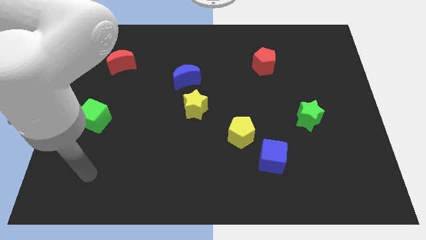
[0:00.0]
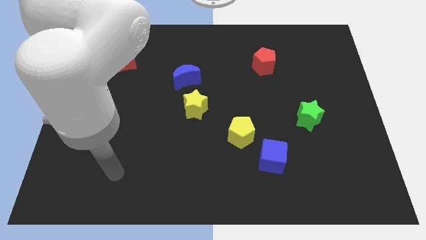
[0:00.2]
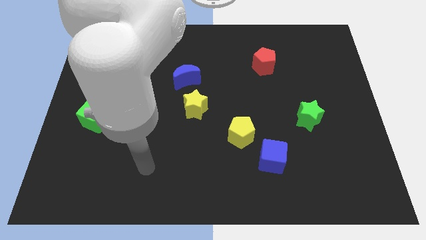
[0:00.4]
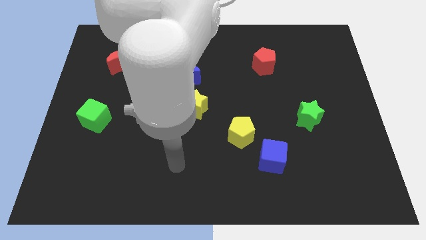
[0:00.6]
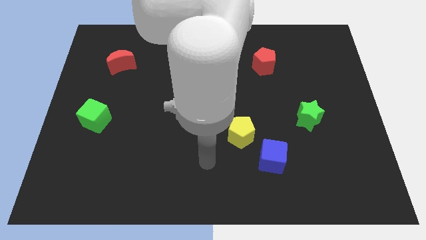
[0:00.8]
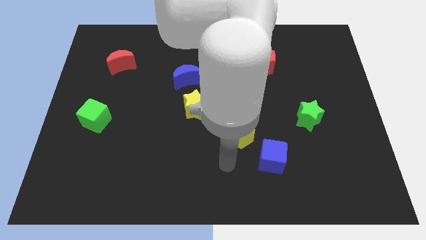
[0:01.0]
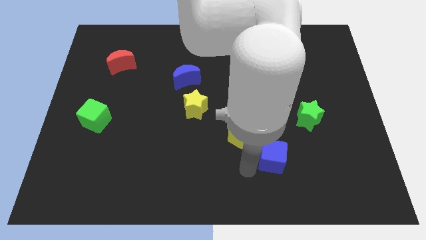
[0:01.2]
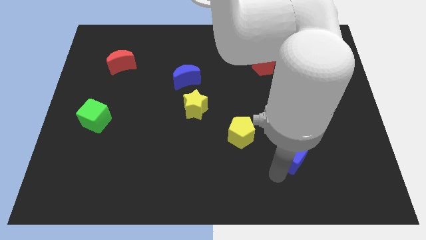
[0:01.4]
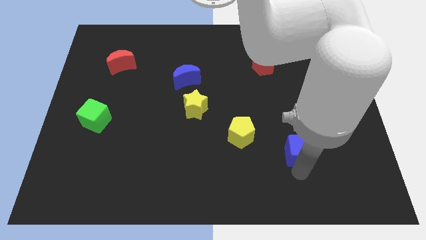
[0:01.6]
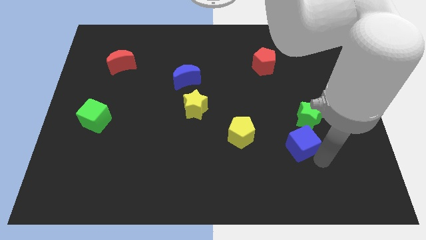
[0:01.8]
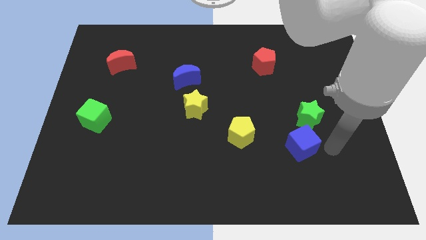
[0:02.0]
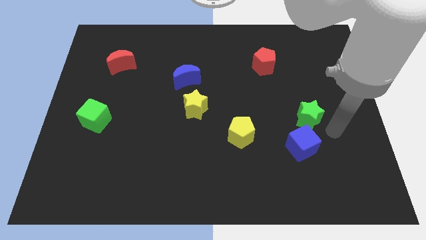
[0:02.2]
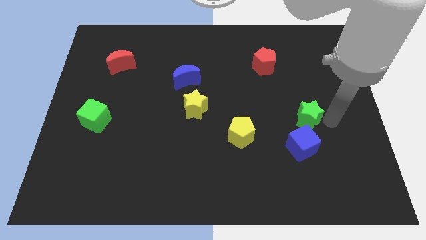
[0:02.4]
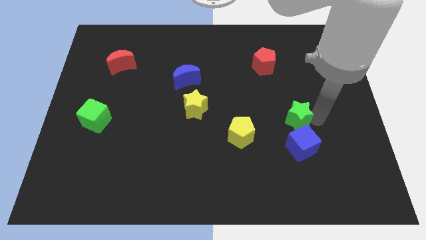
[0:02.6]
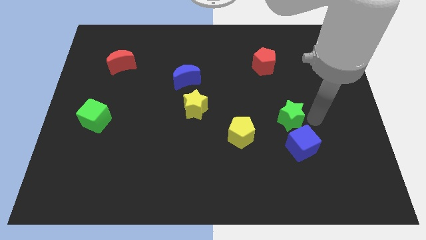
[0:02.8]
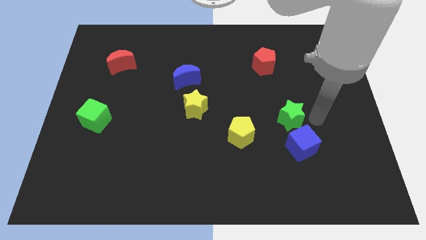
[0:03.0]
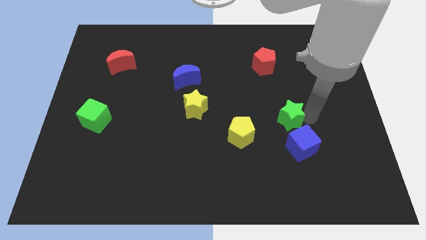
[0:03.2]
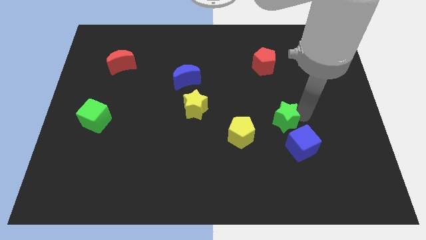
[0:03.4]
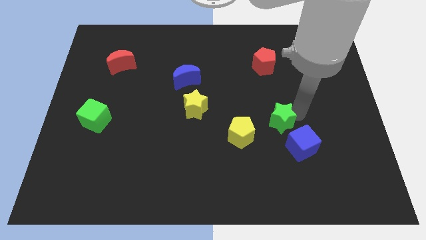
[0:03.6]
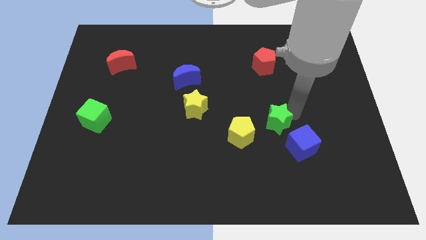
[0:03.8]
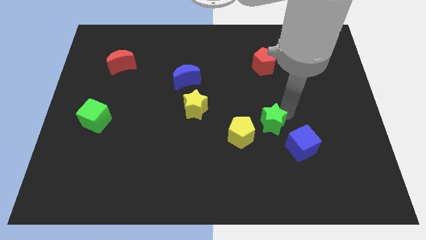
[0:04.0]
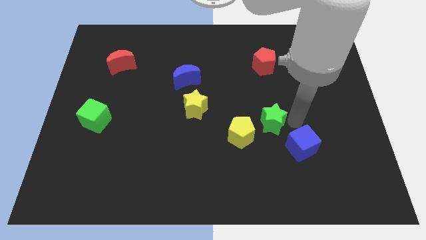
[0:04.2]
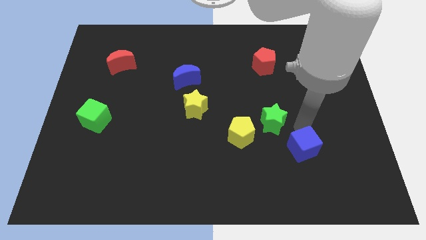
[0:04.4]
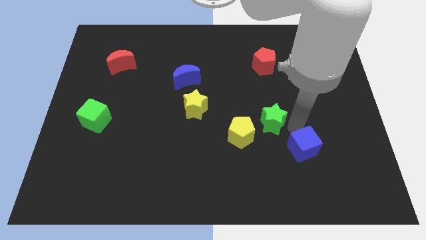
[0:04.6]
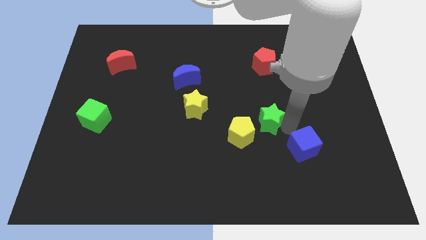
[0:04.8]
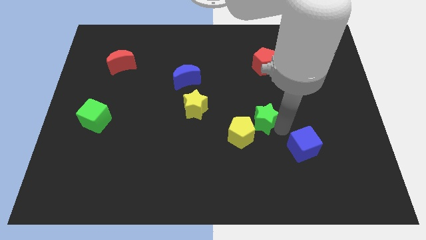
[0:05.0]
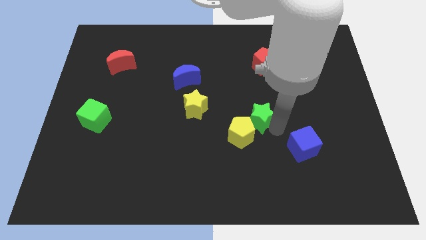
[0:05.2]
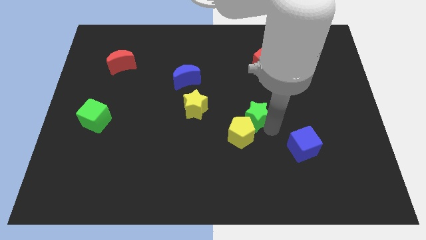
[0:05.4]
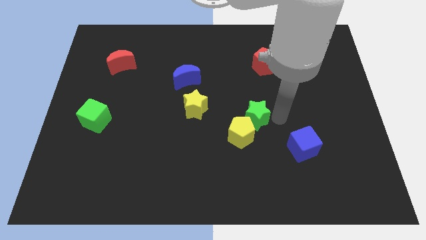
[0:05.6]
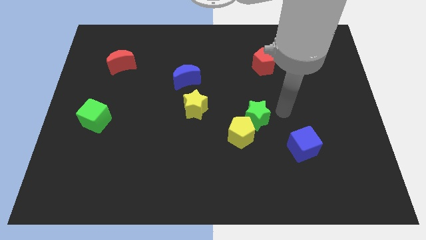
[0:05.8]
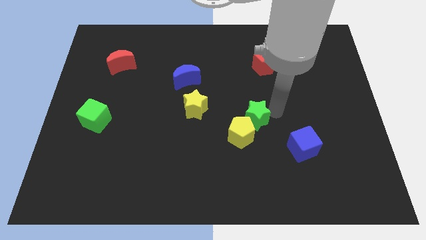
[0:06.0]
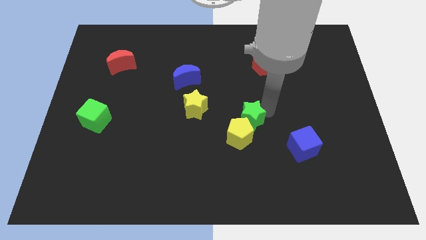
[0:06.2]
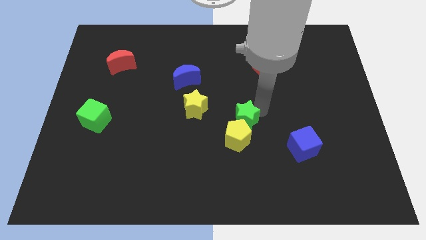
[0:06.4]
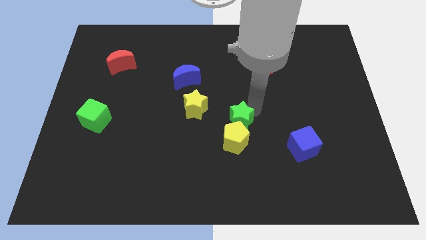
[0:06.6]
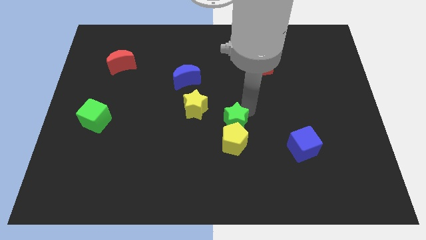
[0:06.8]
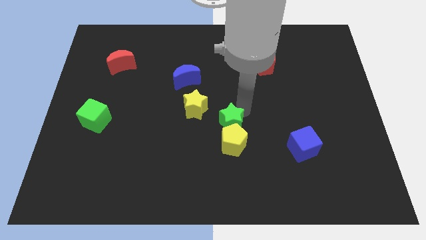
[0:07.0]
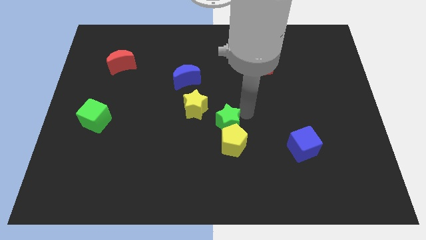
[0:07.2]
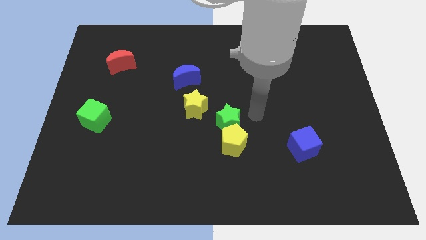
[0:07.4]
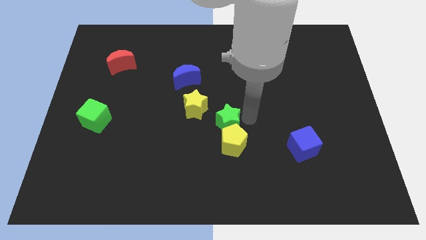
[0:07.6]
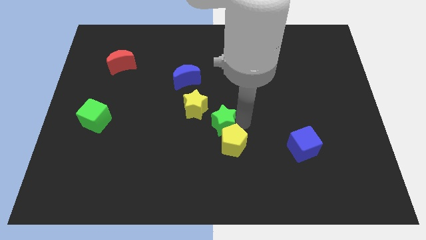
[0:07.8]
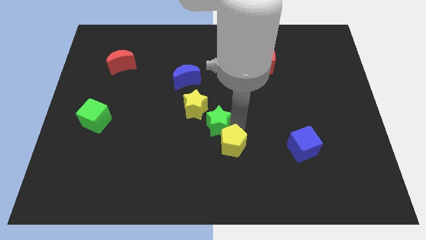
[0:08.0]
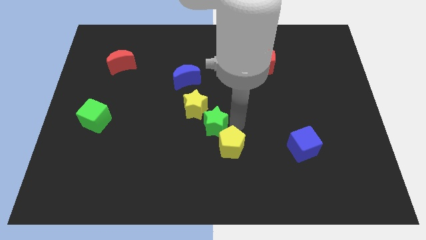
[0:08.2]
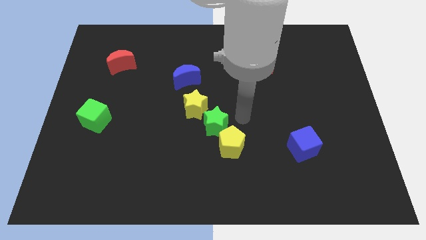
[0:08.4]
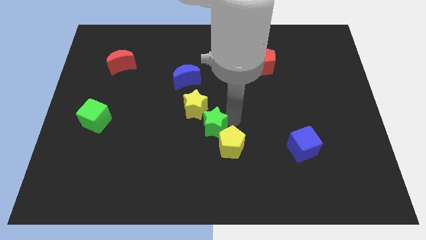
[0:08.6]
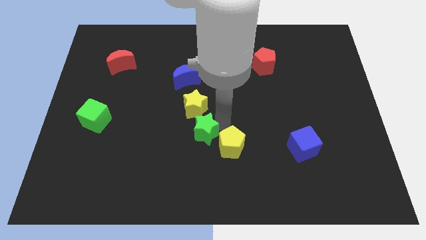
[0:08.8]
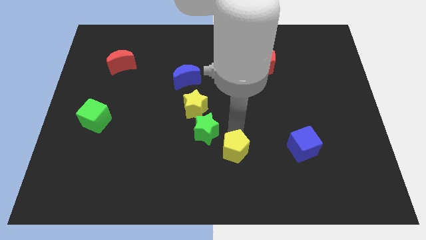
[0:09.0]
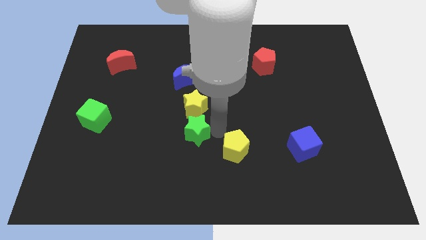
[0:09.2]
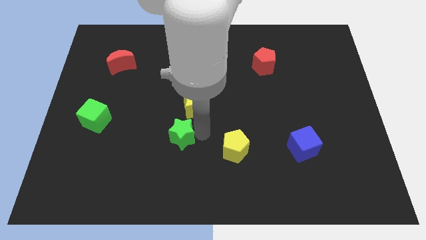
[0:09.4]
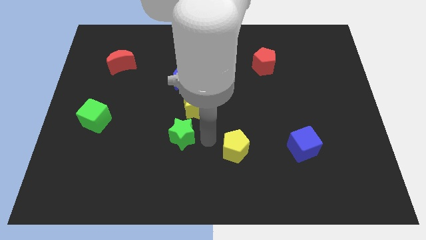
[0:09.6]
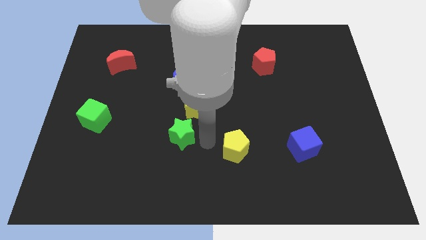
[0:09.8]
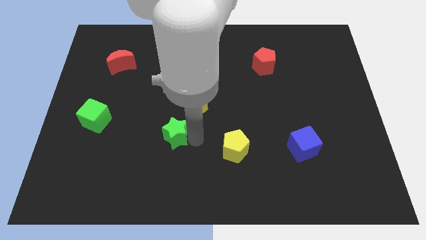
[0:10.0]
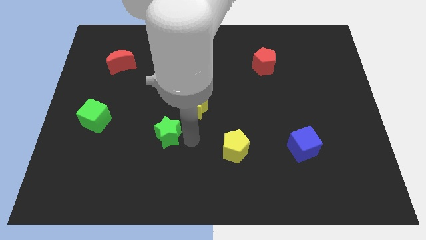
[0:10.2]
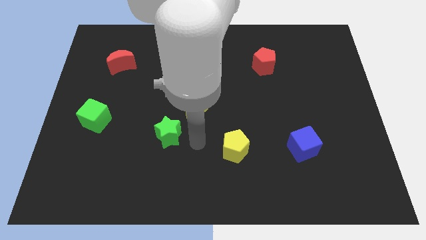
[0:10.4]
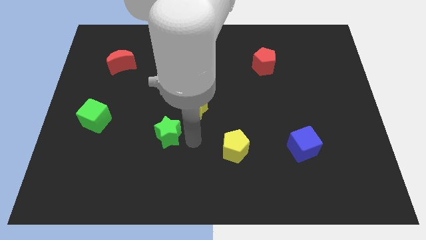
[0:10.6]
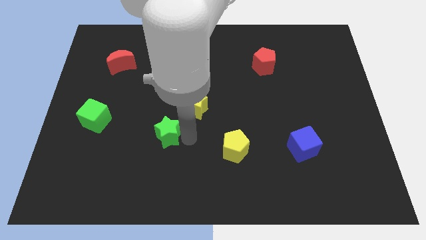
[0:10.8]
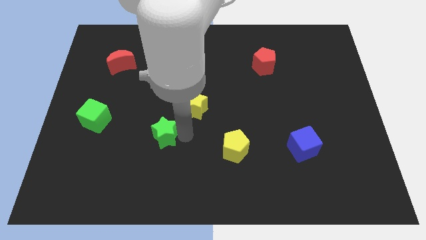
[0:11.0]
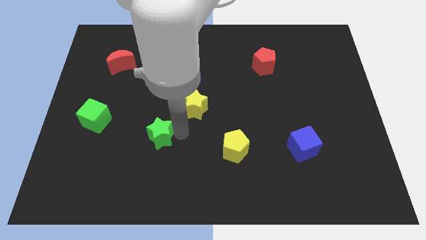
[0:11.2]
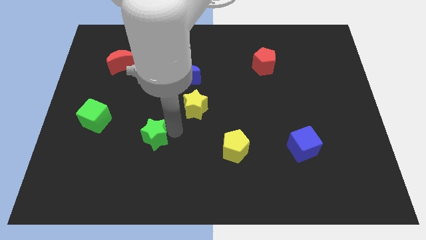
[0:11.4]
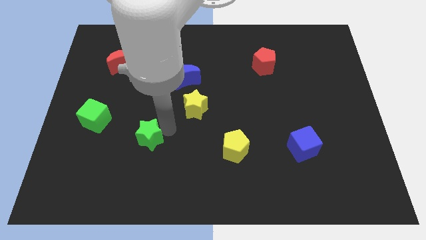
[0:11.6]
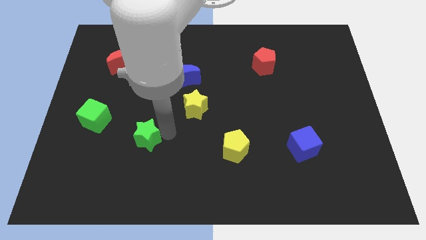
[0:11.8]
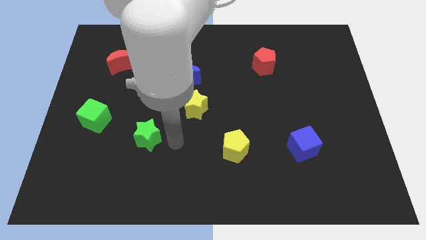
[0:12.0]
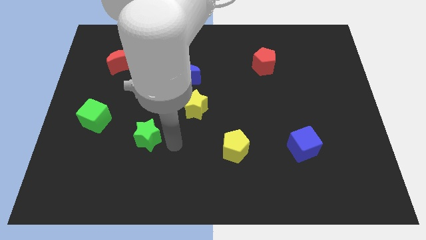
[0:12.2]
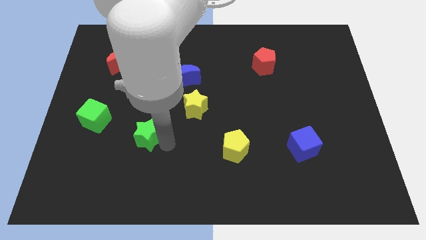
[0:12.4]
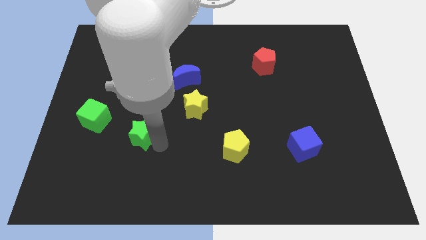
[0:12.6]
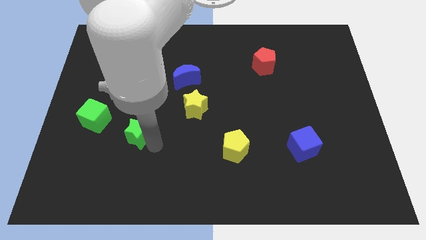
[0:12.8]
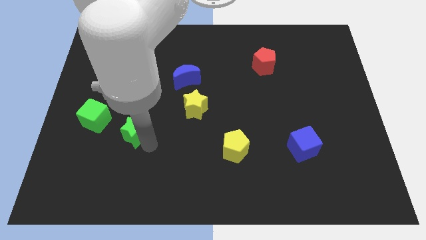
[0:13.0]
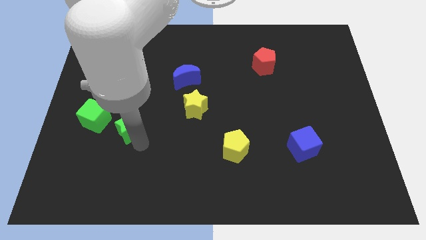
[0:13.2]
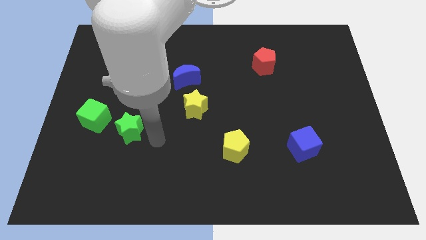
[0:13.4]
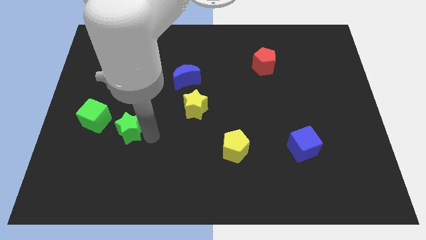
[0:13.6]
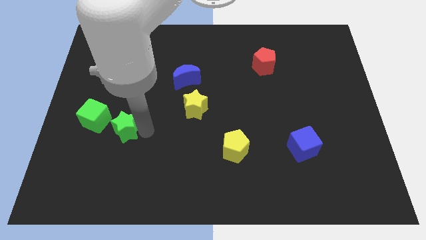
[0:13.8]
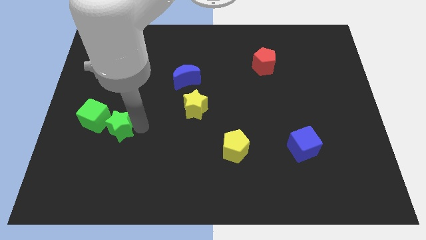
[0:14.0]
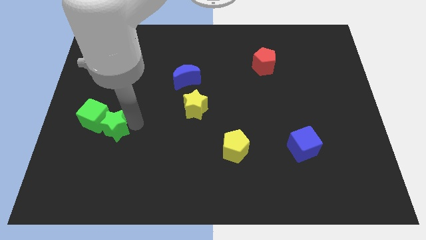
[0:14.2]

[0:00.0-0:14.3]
push the green star next to the green cube

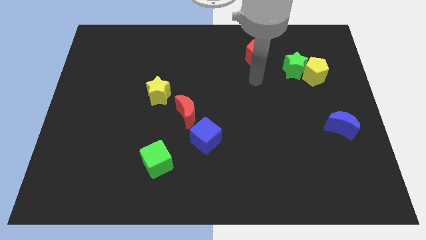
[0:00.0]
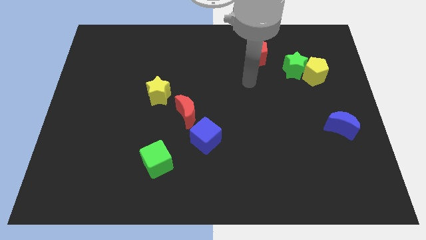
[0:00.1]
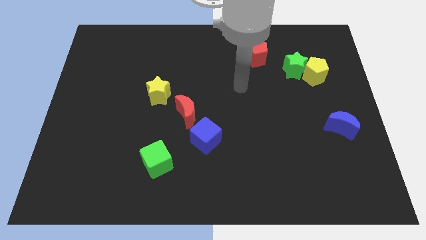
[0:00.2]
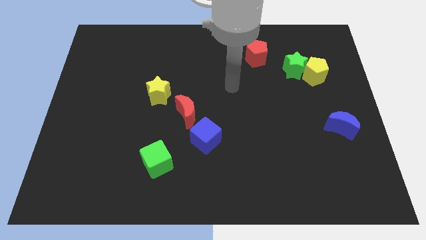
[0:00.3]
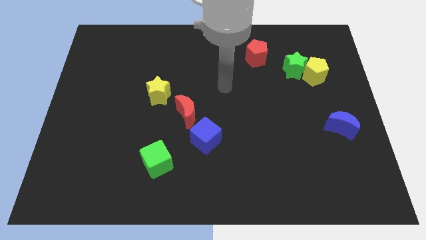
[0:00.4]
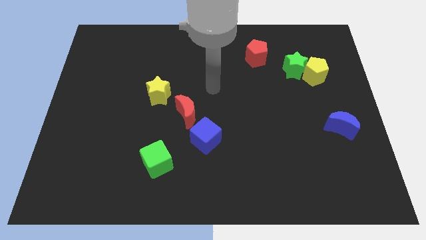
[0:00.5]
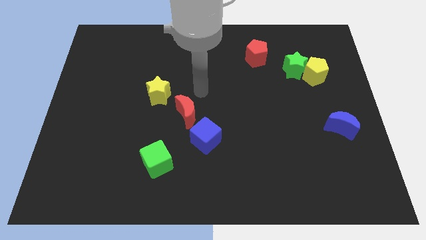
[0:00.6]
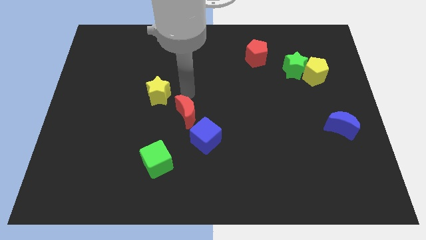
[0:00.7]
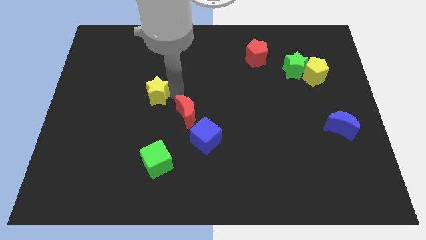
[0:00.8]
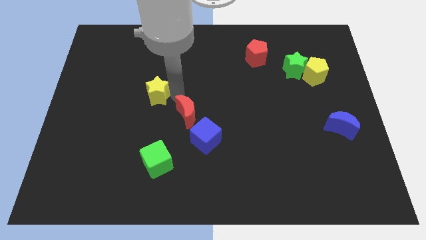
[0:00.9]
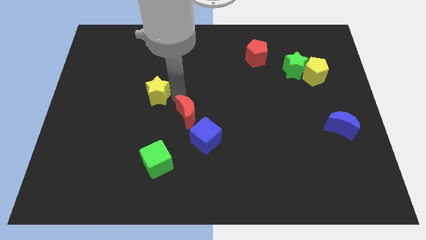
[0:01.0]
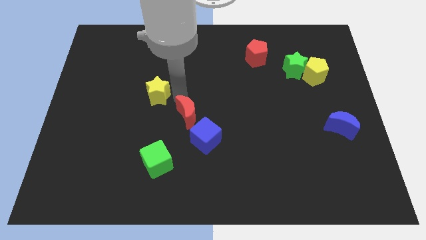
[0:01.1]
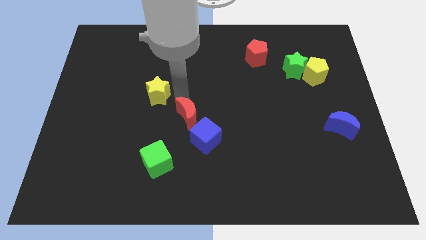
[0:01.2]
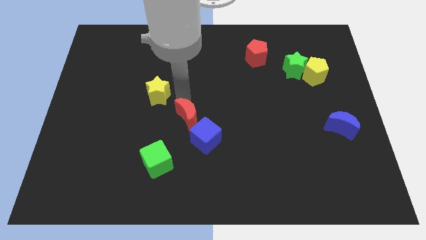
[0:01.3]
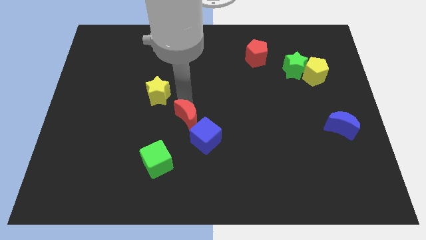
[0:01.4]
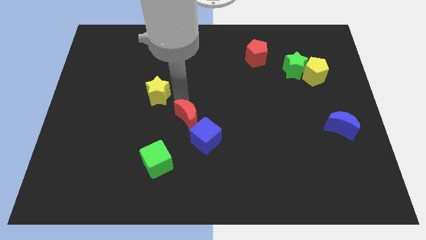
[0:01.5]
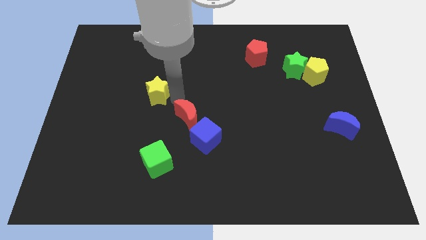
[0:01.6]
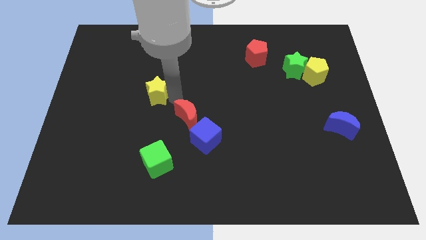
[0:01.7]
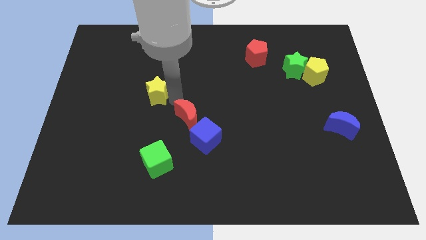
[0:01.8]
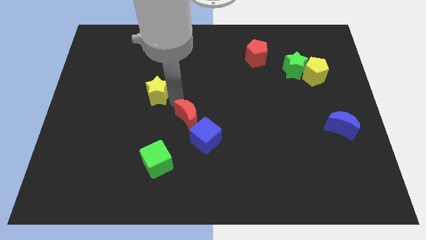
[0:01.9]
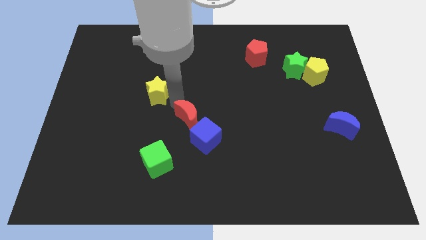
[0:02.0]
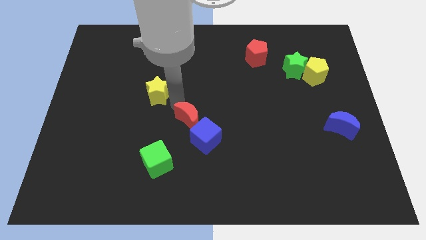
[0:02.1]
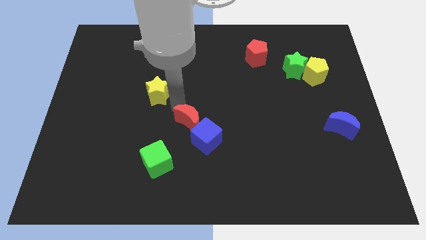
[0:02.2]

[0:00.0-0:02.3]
put the red moon close to the blue cube
